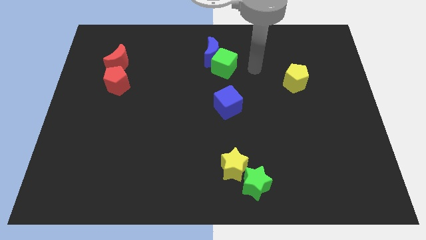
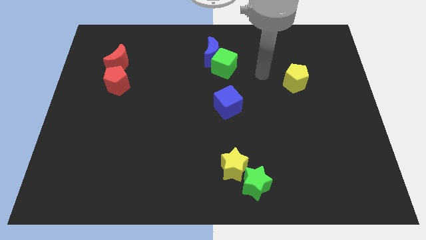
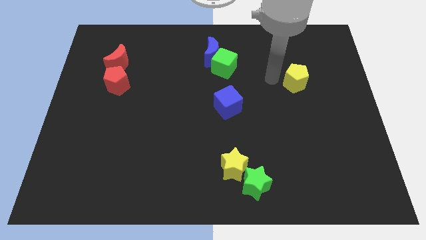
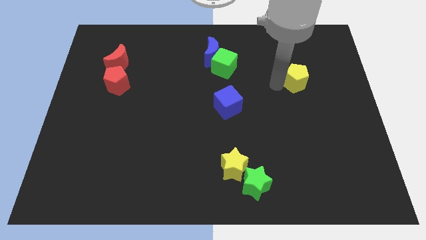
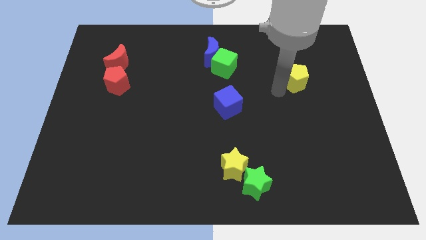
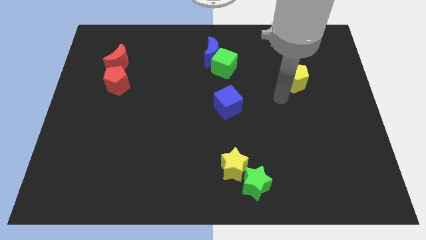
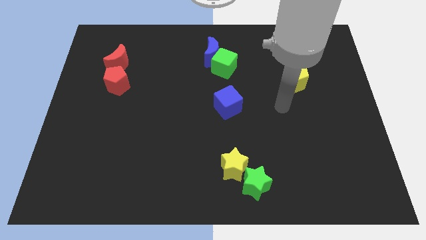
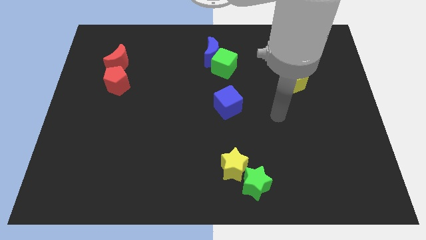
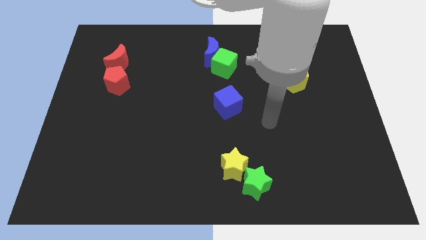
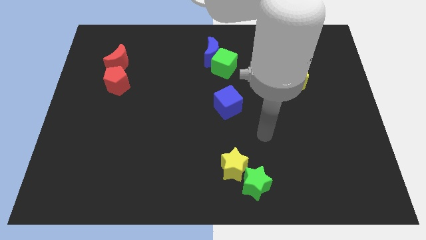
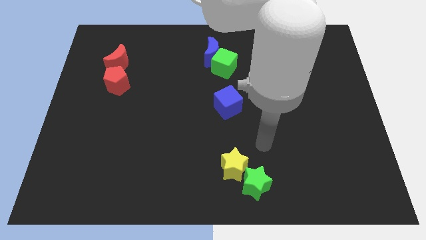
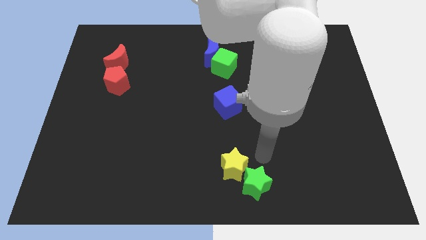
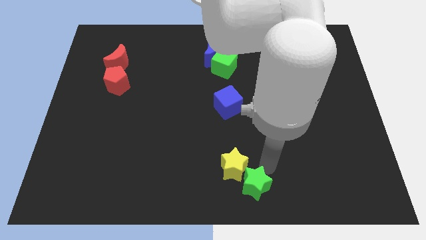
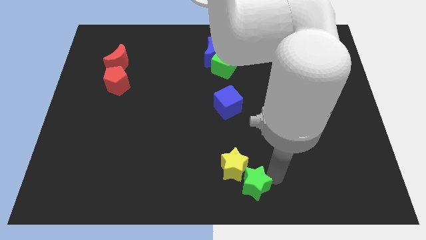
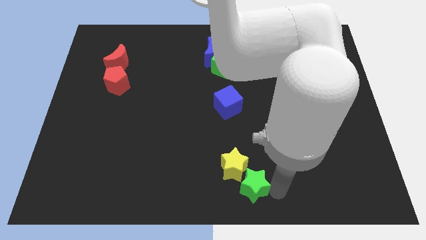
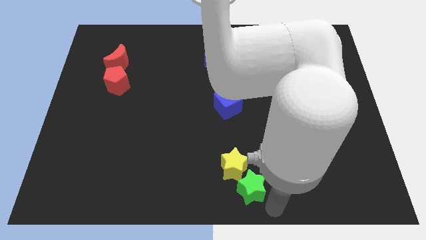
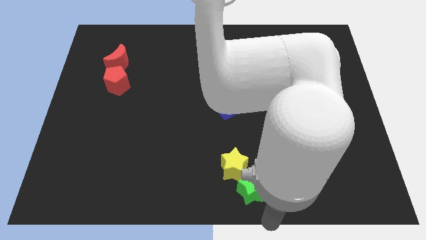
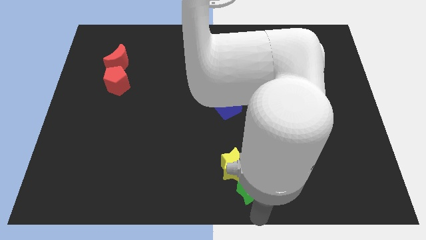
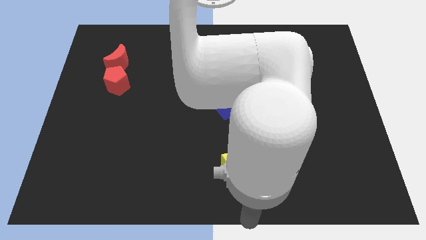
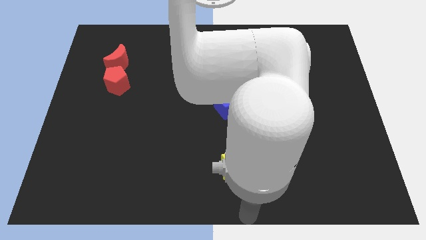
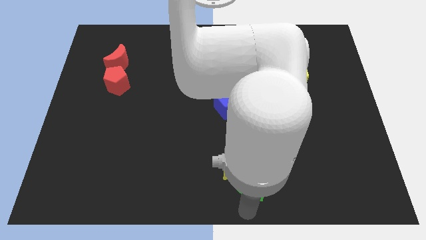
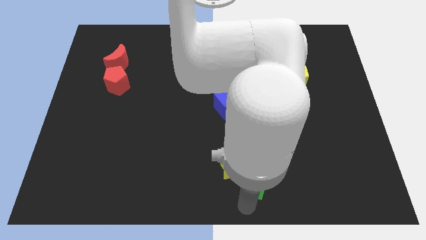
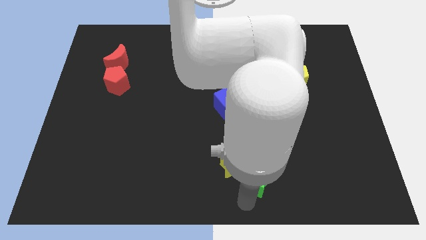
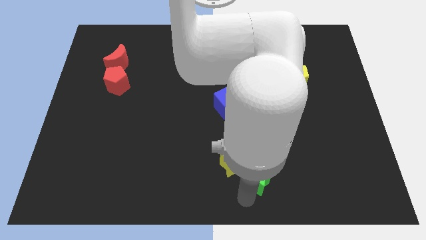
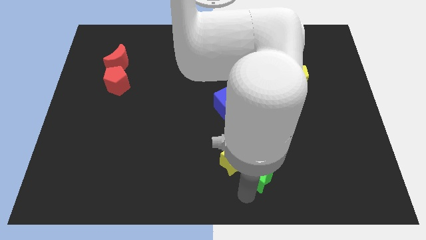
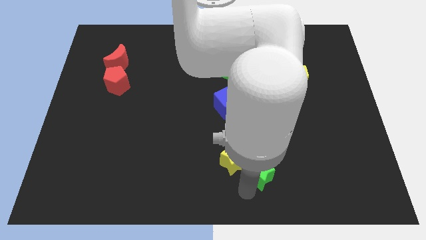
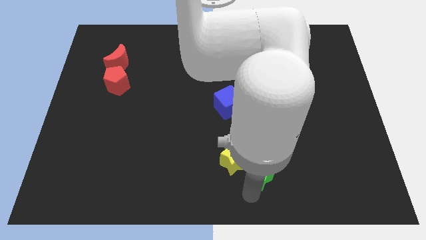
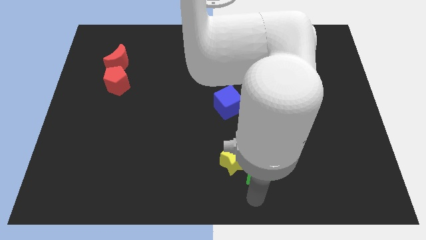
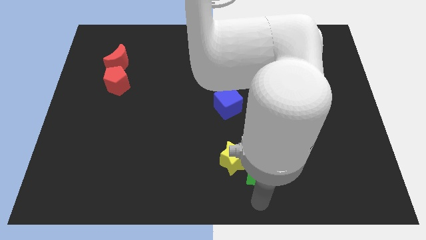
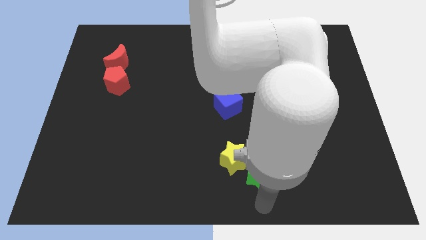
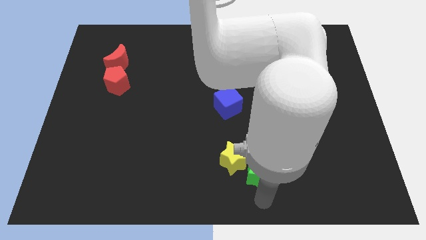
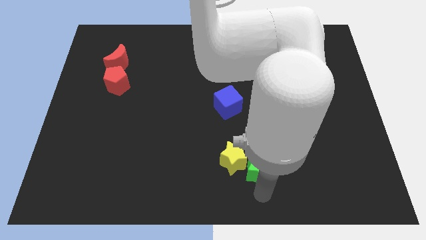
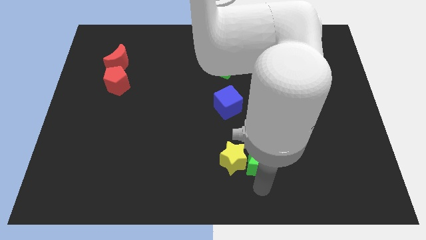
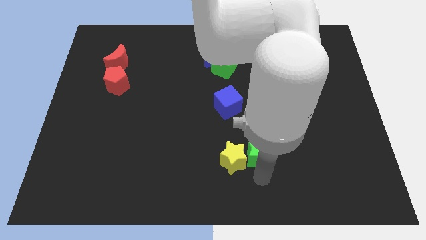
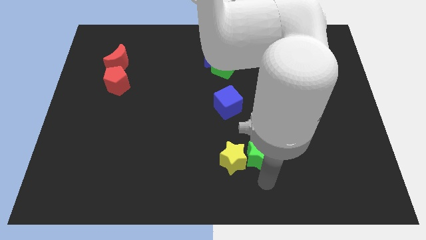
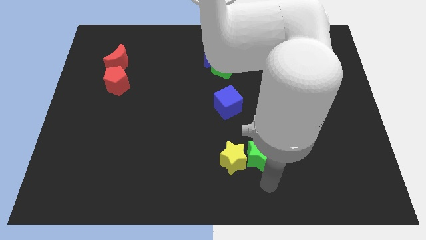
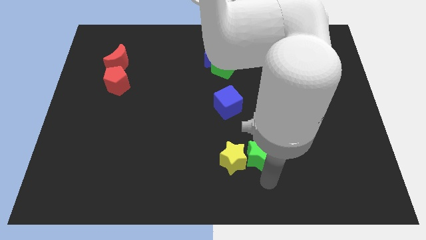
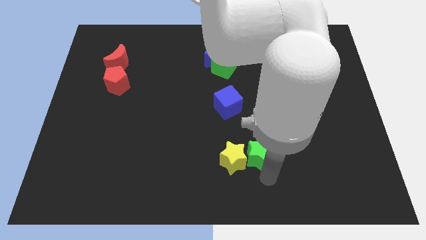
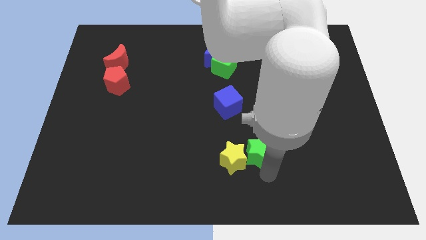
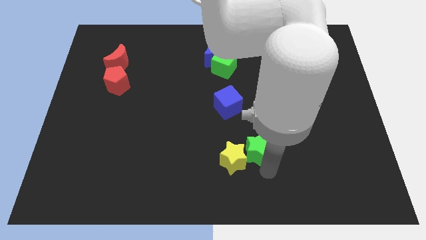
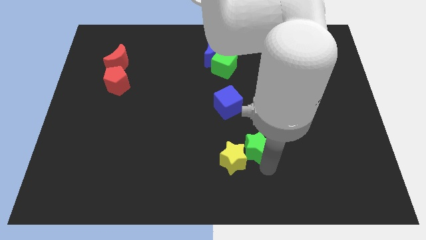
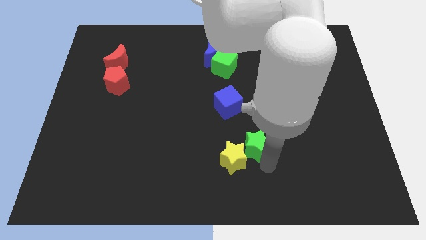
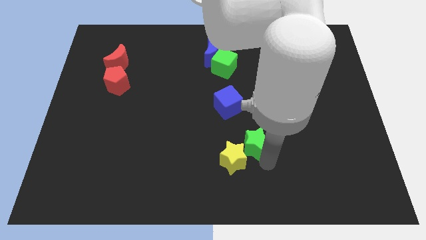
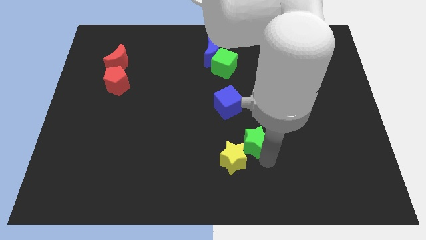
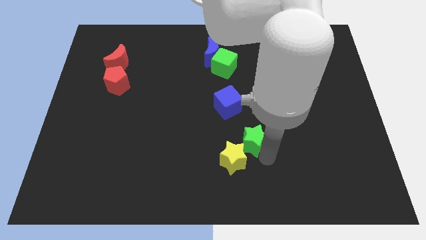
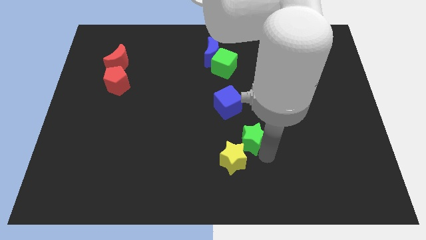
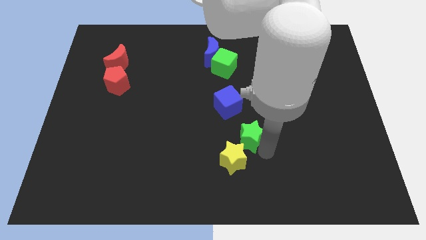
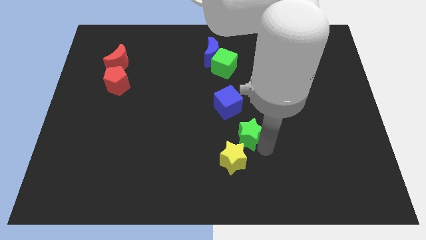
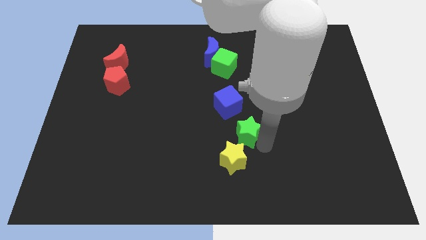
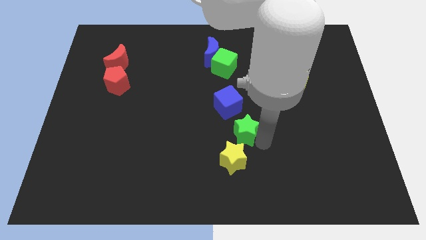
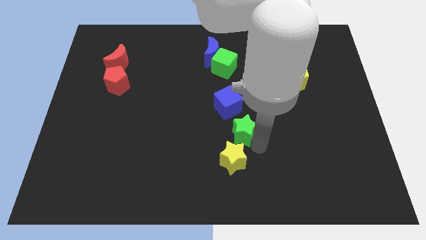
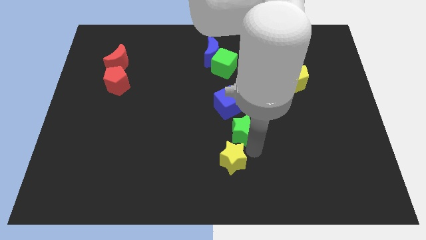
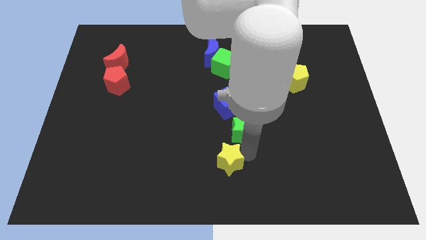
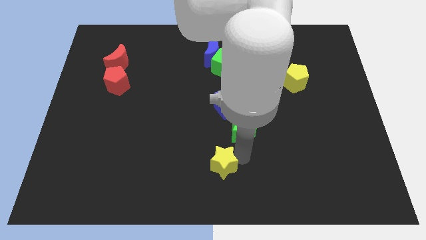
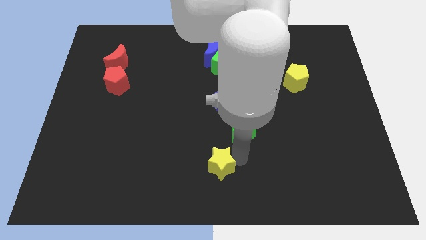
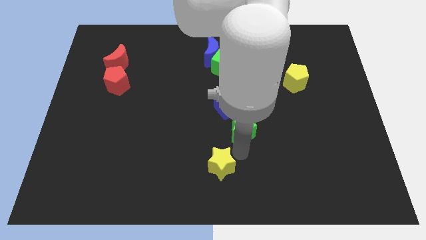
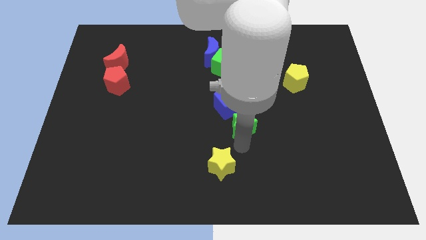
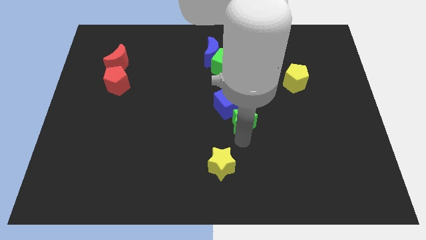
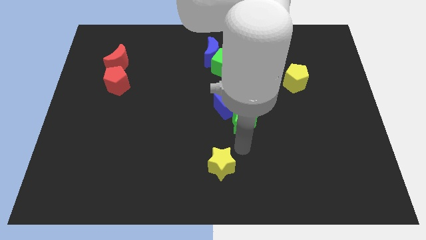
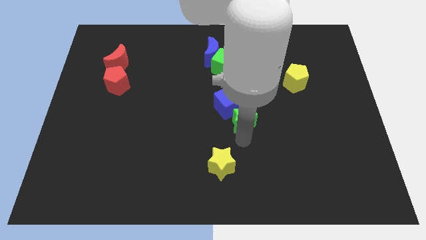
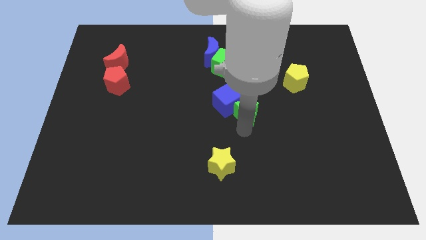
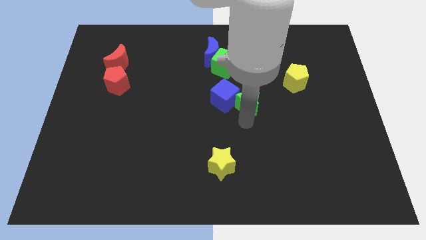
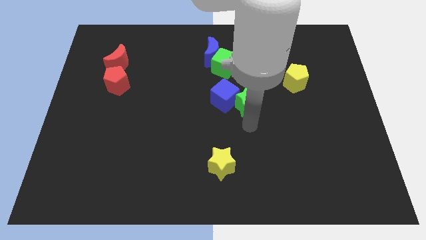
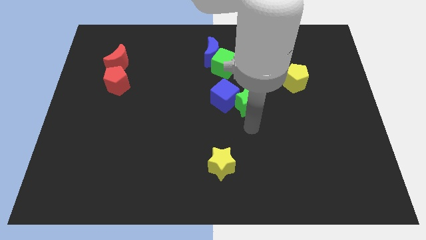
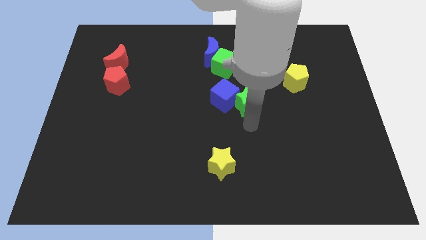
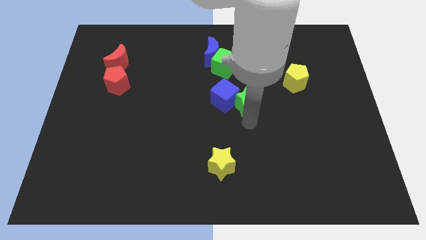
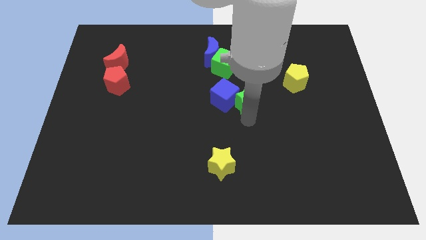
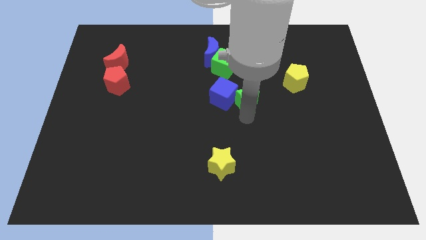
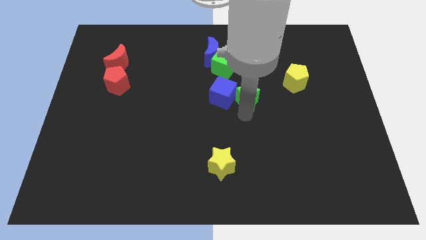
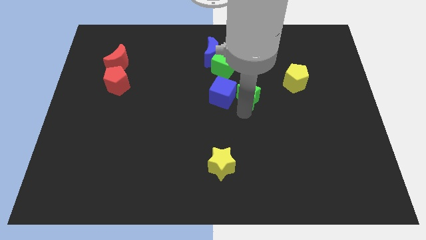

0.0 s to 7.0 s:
push the green star diagonally up and to the right of the blue cube

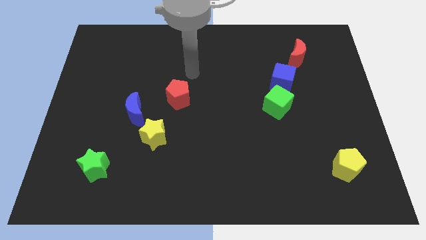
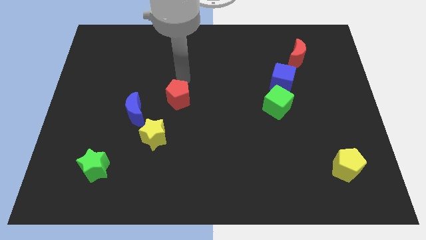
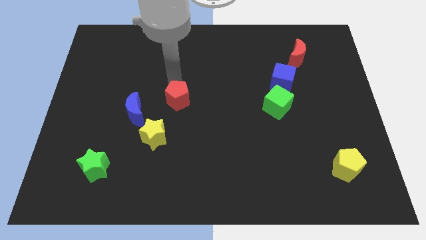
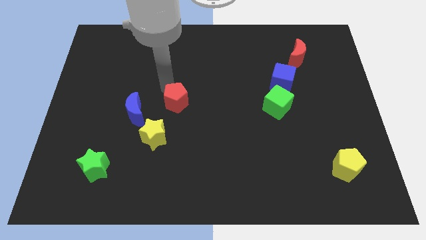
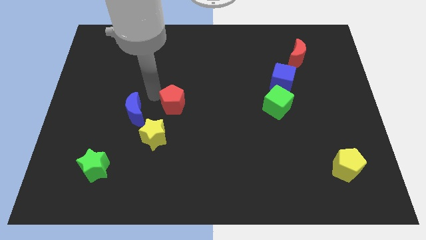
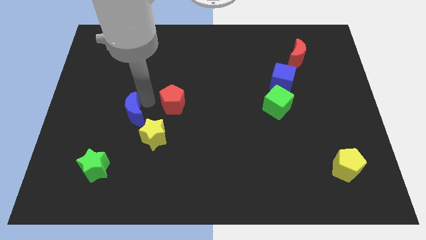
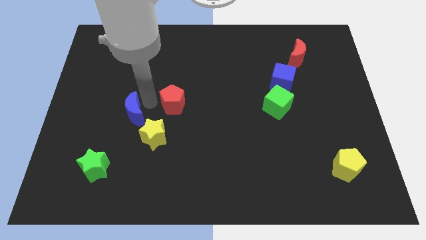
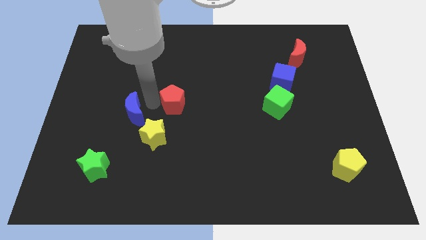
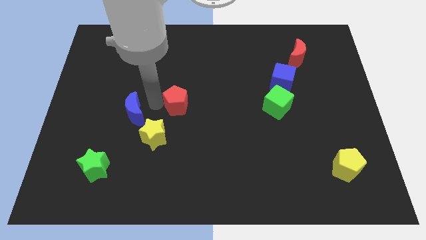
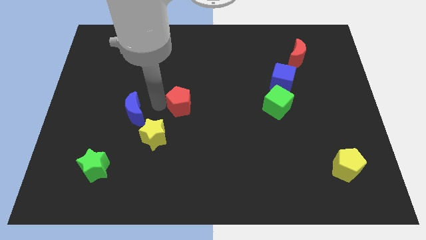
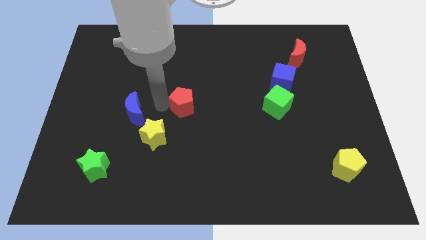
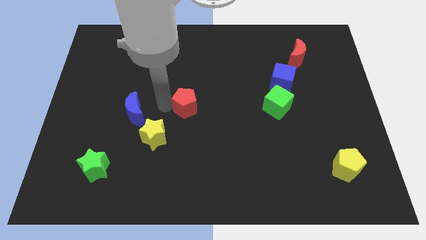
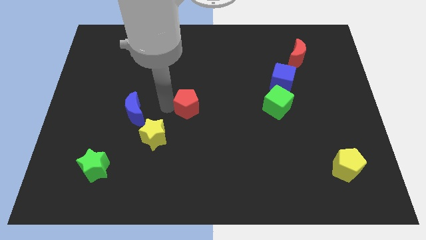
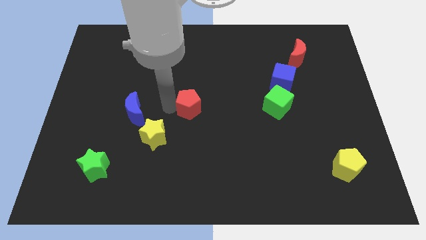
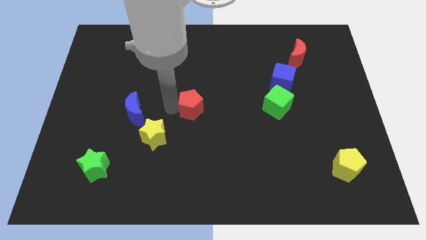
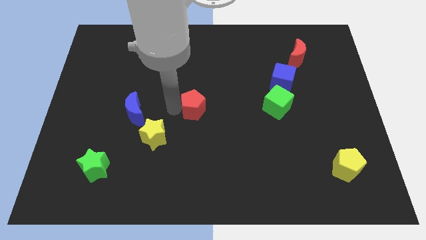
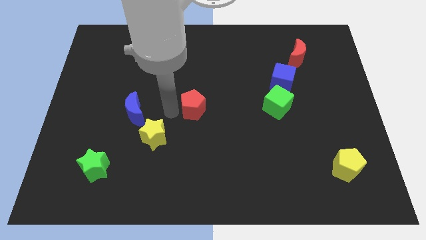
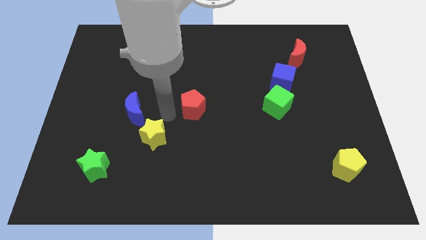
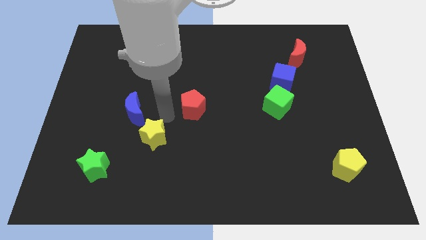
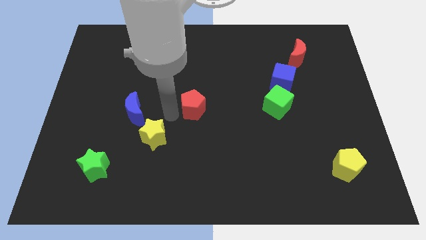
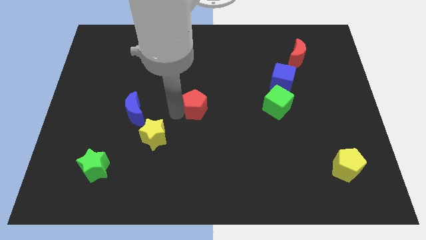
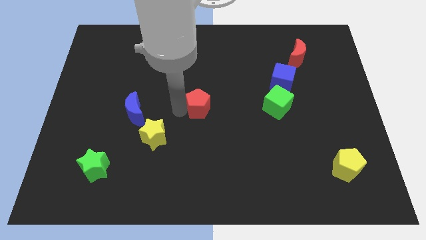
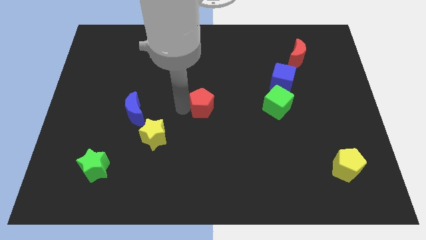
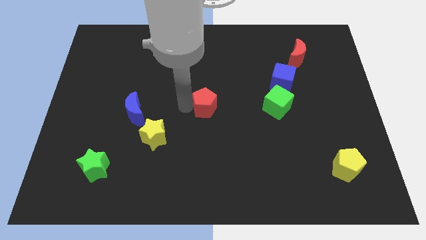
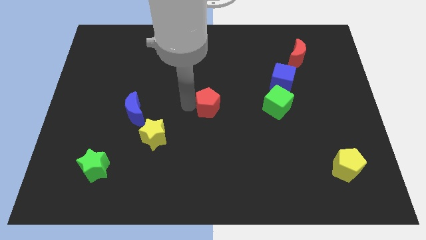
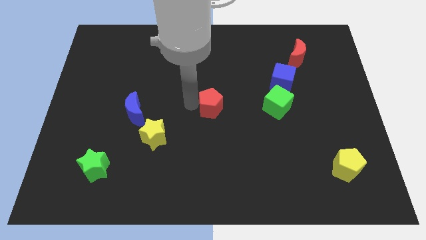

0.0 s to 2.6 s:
push the red pentagon left of the green cube
